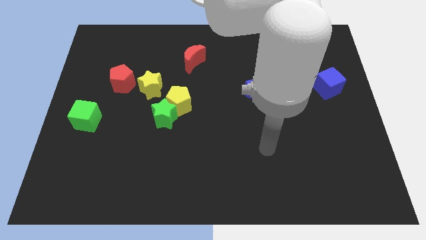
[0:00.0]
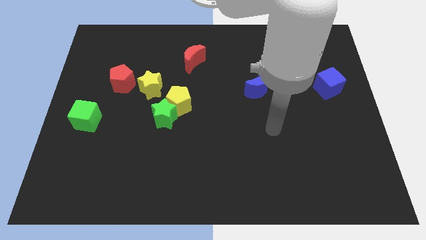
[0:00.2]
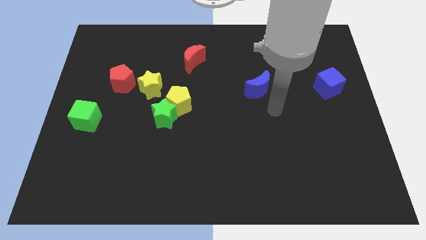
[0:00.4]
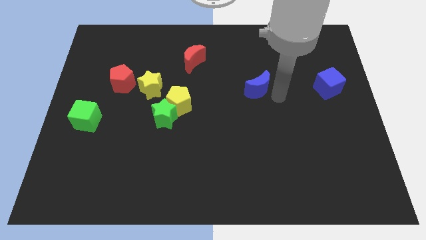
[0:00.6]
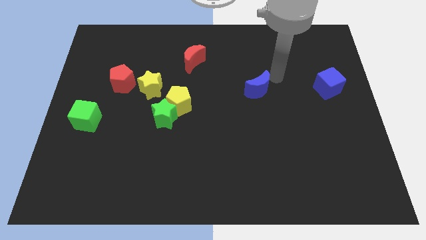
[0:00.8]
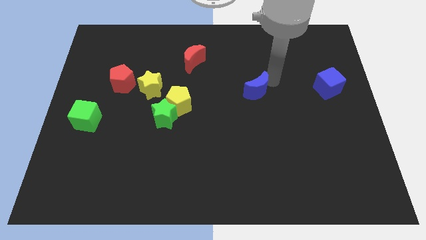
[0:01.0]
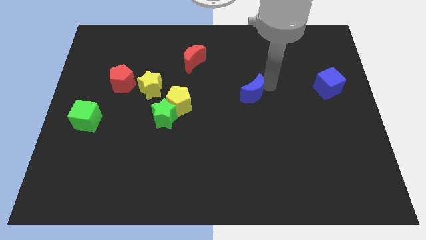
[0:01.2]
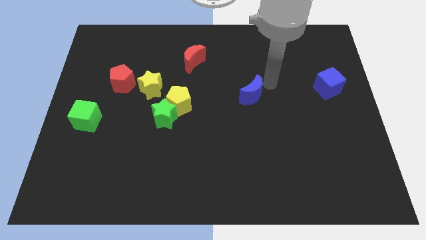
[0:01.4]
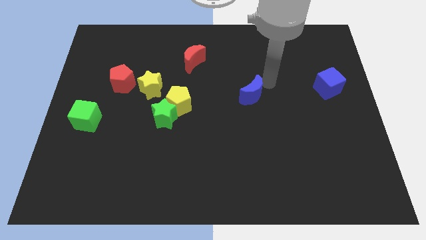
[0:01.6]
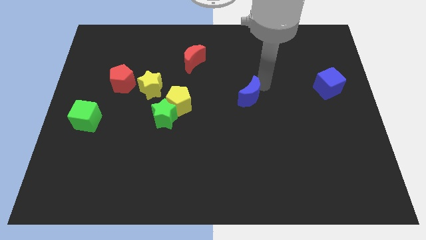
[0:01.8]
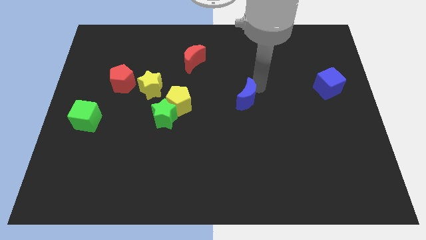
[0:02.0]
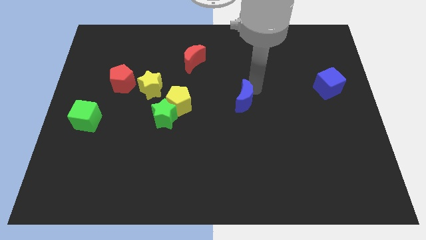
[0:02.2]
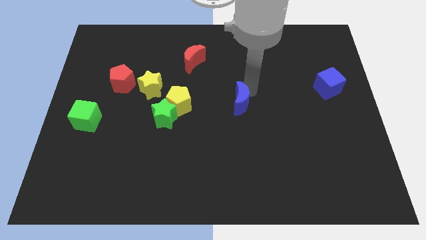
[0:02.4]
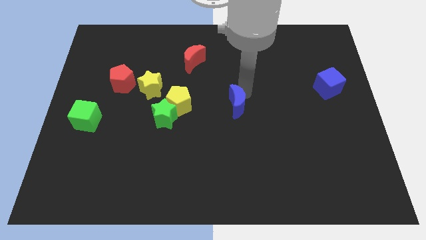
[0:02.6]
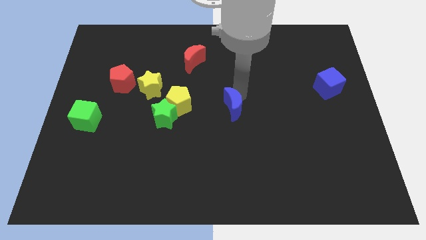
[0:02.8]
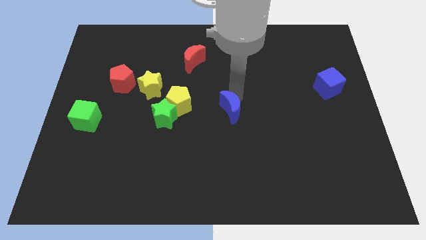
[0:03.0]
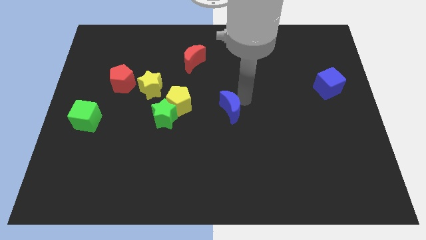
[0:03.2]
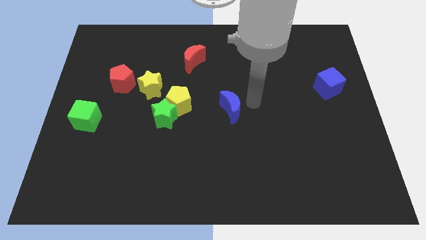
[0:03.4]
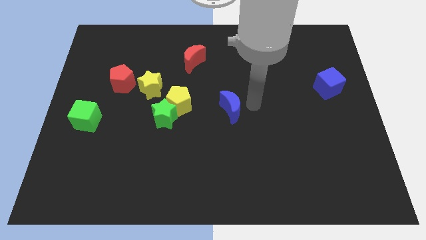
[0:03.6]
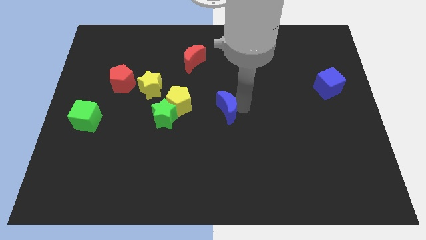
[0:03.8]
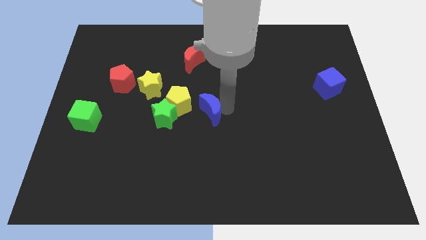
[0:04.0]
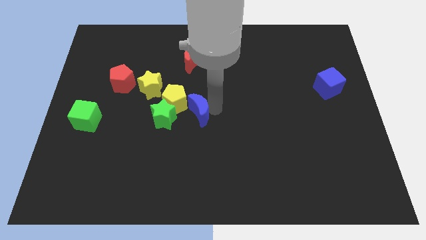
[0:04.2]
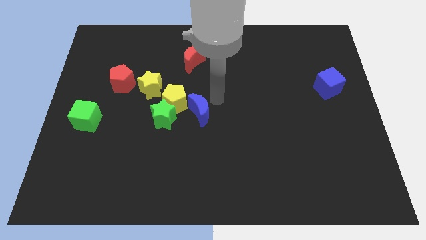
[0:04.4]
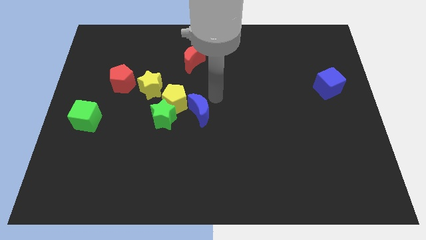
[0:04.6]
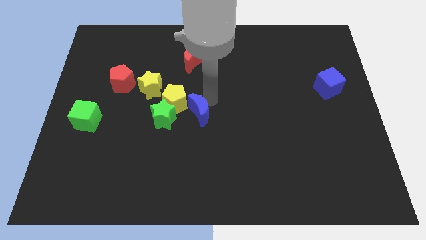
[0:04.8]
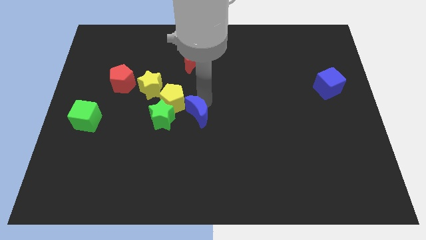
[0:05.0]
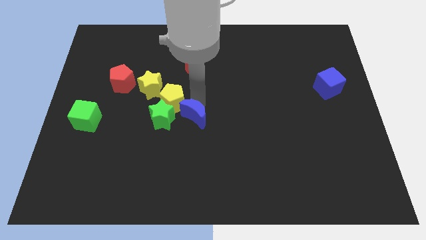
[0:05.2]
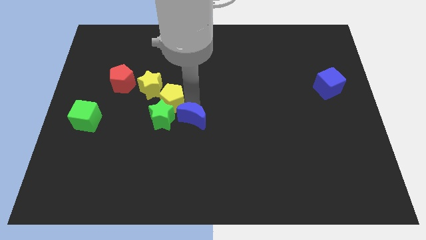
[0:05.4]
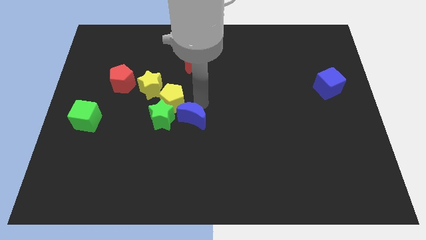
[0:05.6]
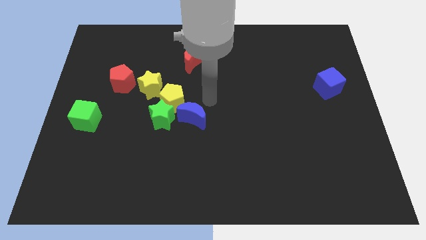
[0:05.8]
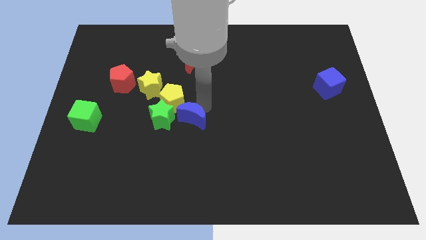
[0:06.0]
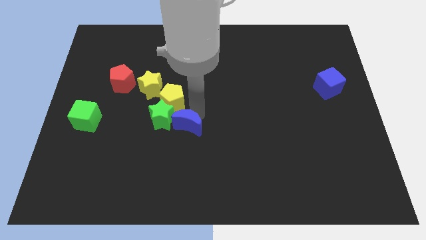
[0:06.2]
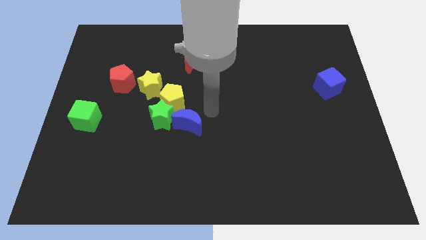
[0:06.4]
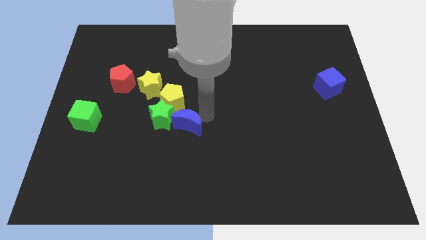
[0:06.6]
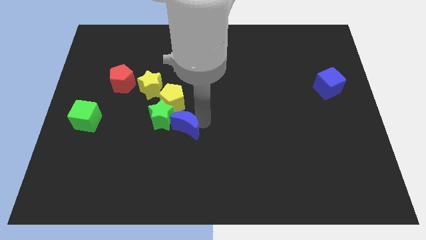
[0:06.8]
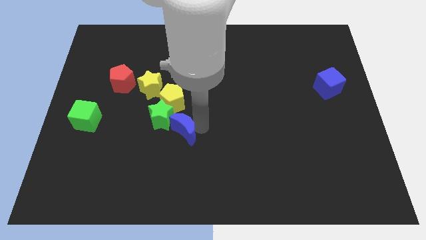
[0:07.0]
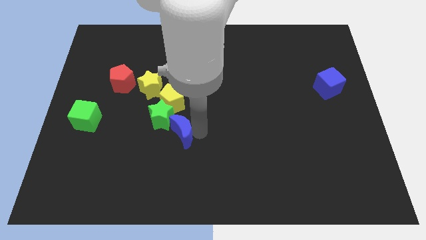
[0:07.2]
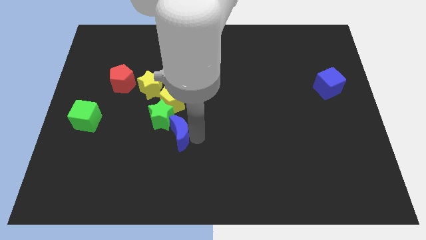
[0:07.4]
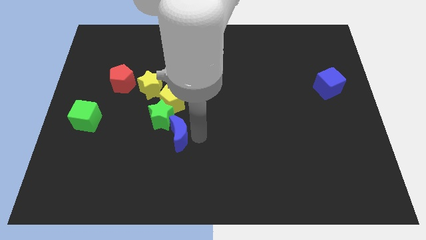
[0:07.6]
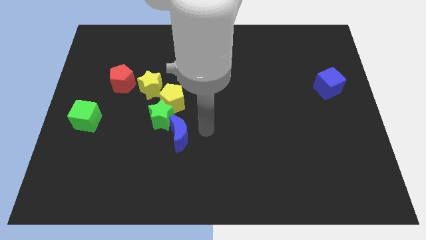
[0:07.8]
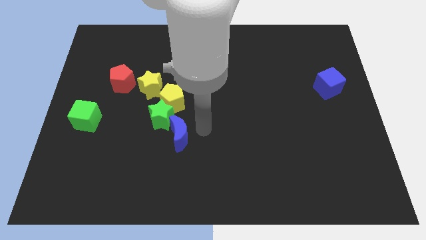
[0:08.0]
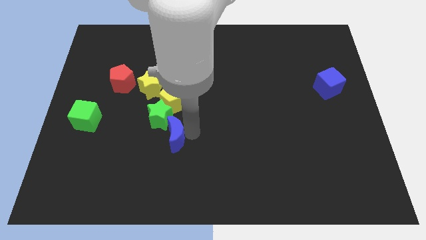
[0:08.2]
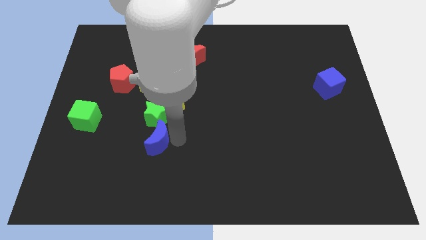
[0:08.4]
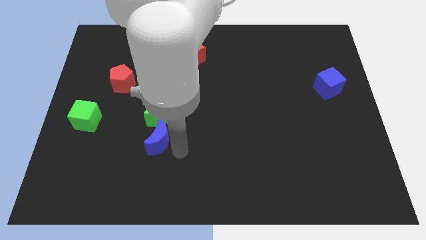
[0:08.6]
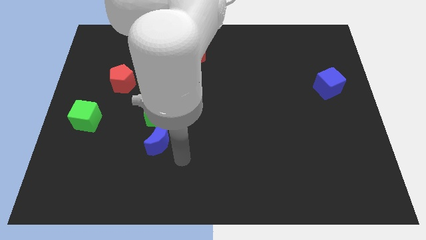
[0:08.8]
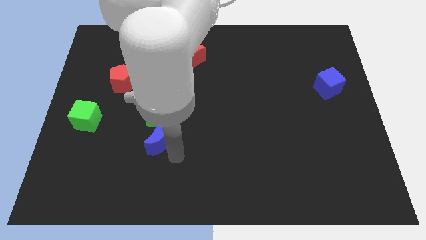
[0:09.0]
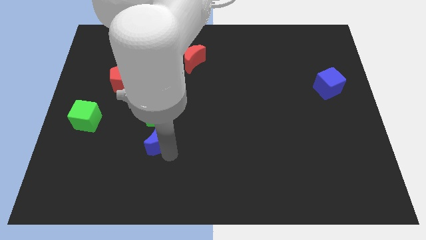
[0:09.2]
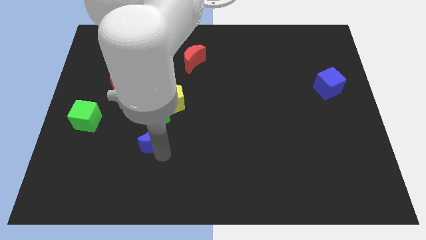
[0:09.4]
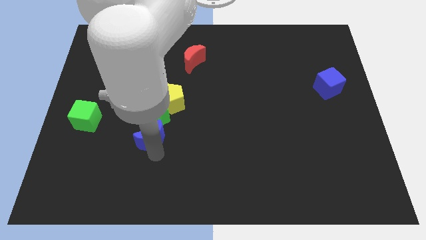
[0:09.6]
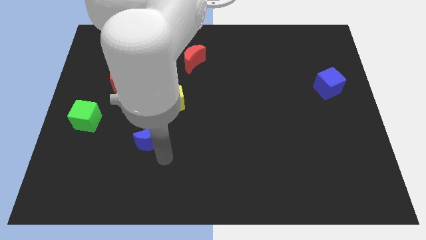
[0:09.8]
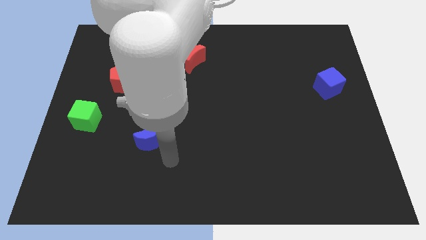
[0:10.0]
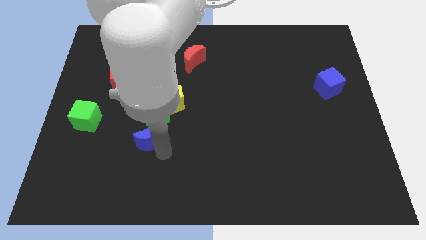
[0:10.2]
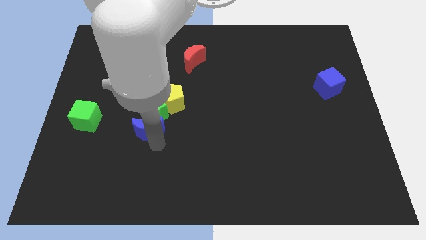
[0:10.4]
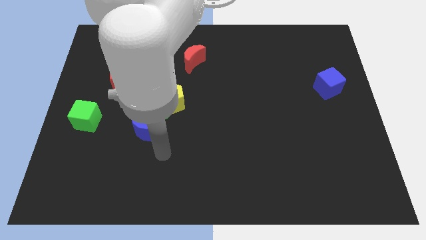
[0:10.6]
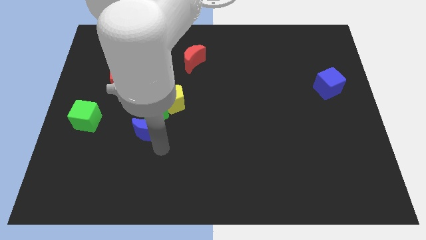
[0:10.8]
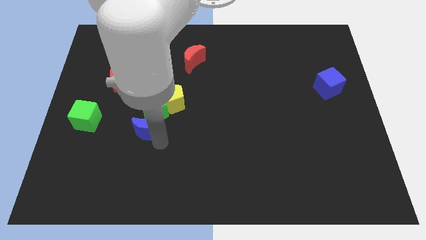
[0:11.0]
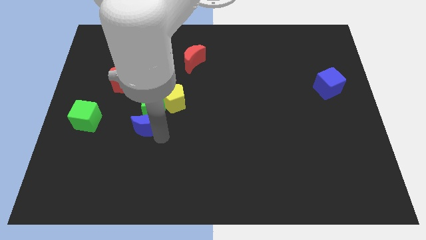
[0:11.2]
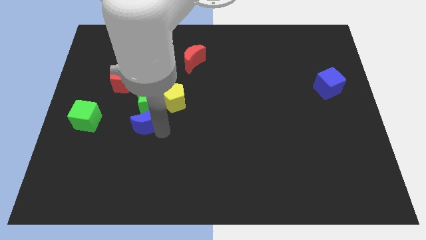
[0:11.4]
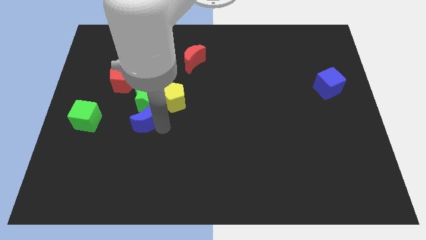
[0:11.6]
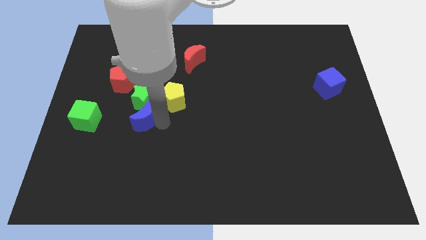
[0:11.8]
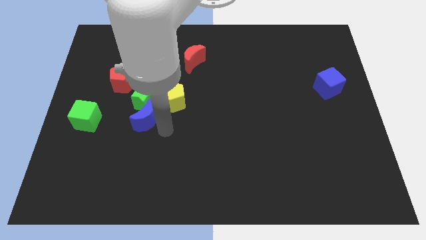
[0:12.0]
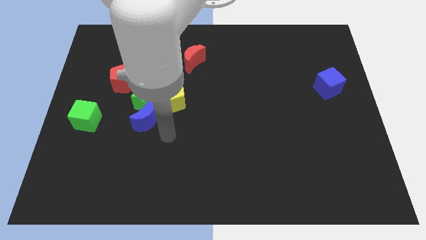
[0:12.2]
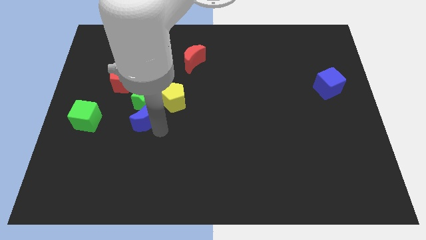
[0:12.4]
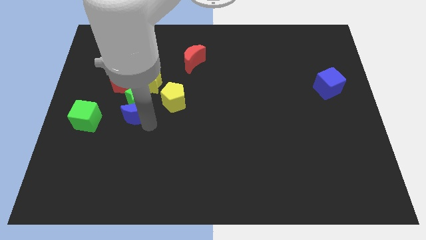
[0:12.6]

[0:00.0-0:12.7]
push the blue moon to the bottom right side of the red pentagon

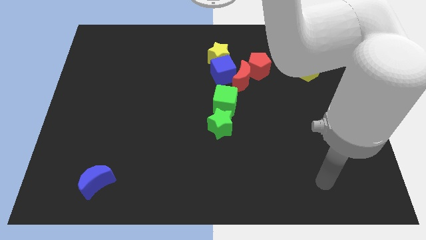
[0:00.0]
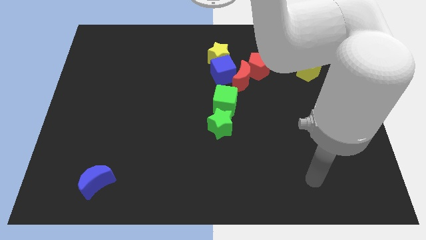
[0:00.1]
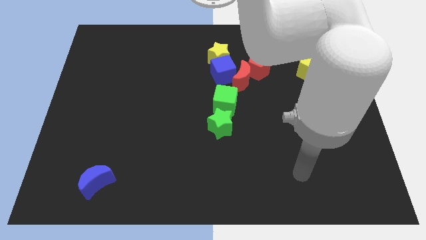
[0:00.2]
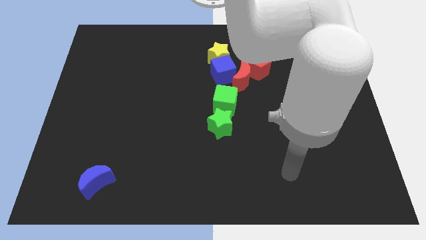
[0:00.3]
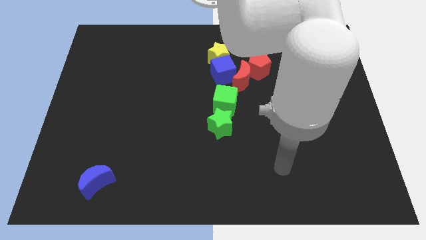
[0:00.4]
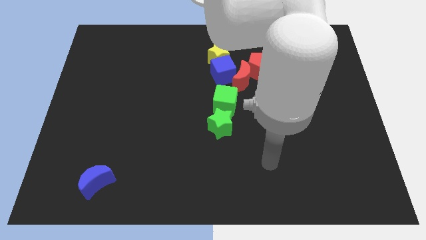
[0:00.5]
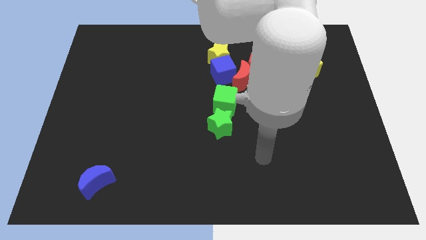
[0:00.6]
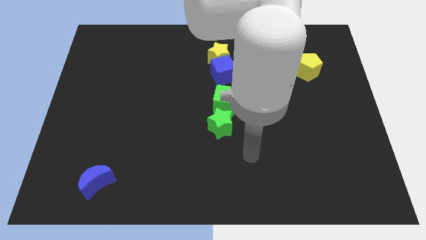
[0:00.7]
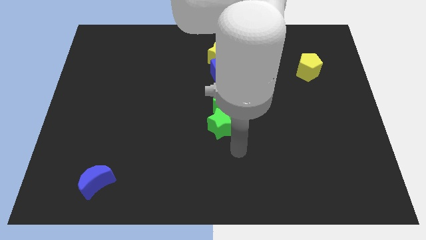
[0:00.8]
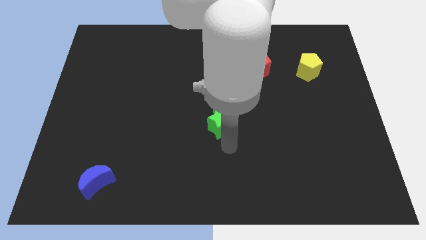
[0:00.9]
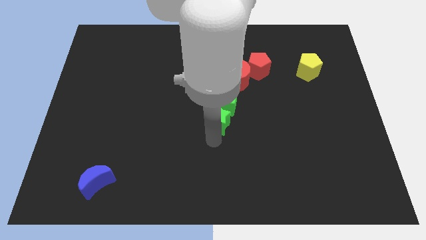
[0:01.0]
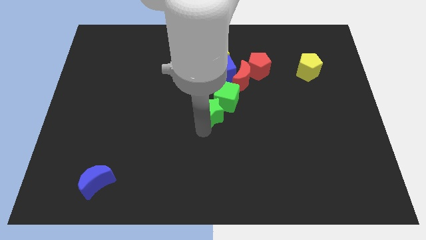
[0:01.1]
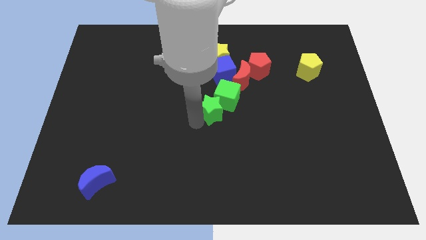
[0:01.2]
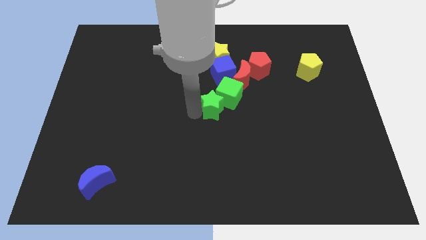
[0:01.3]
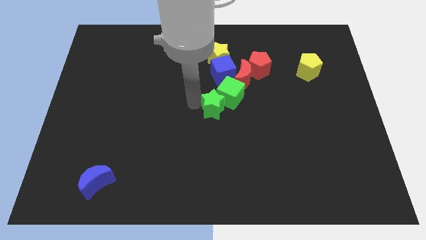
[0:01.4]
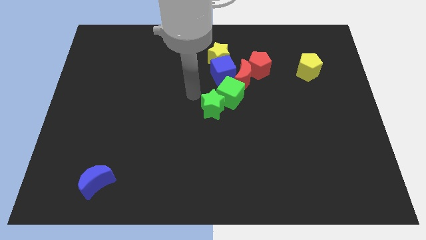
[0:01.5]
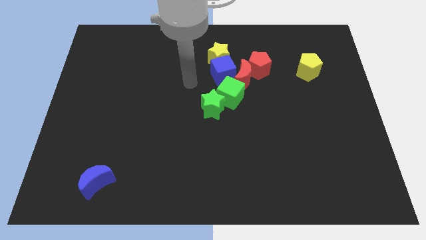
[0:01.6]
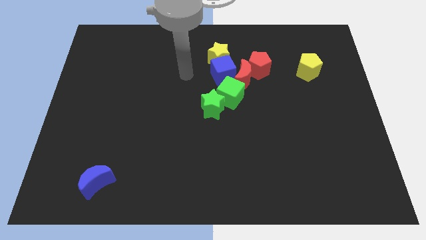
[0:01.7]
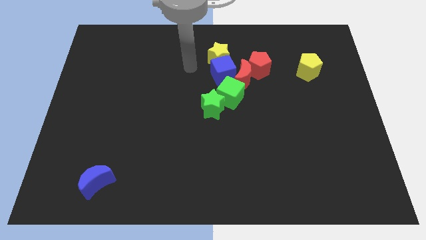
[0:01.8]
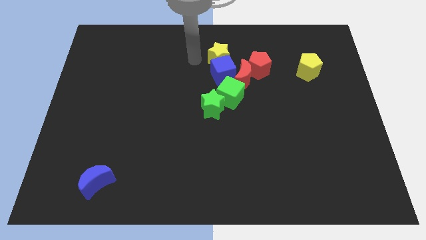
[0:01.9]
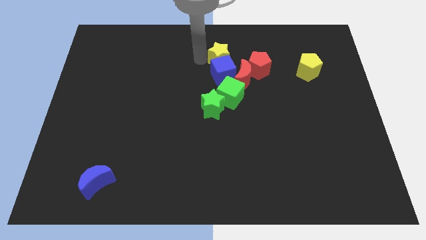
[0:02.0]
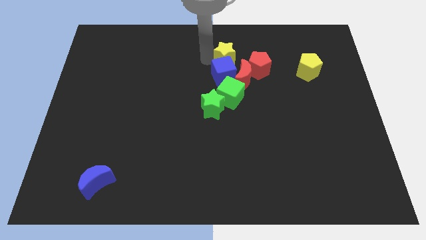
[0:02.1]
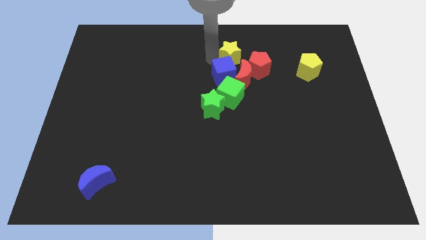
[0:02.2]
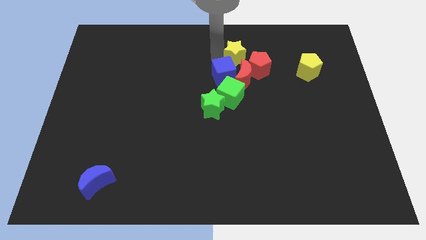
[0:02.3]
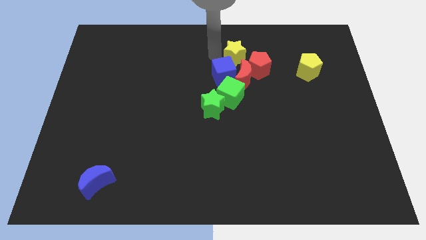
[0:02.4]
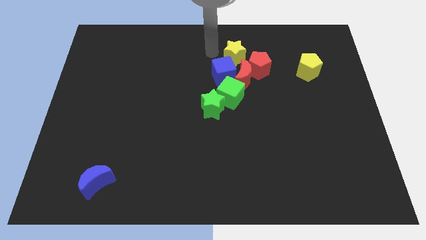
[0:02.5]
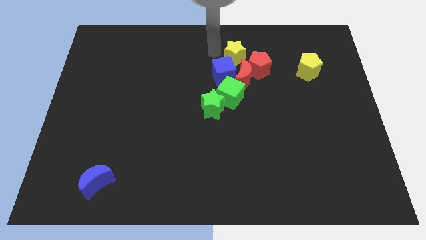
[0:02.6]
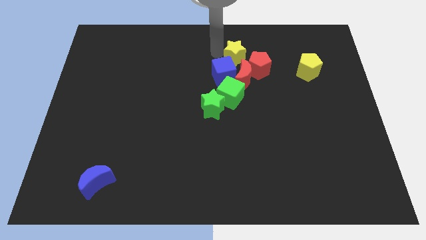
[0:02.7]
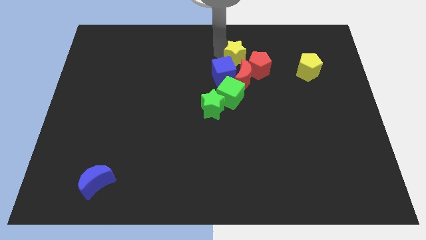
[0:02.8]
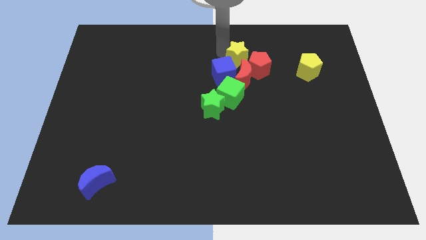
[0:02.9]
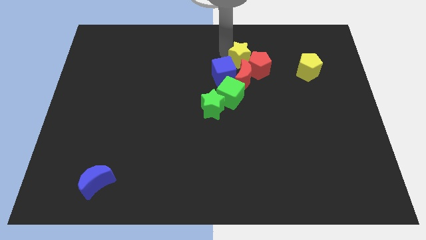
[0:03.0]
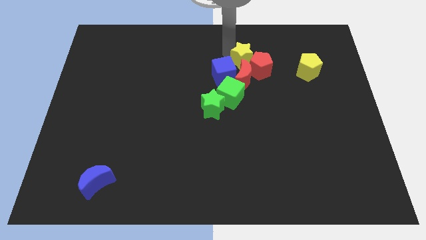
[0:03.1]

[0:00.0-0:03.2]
slide the yellow star to the top right of the red moon
